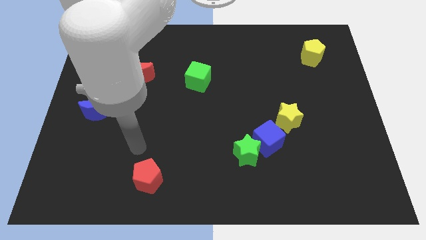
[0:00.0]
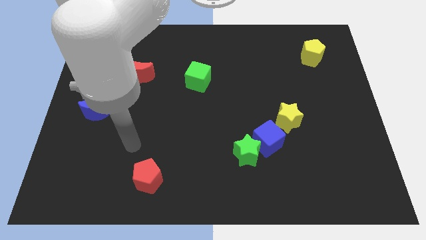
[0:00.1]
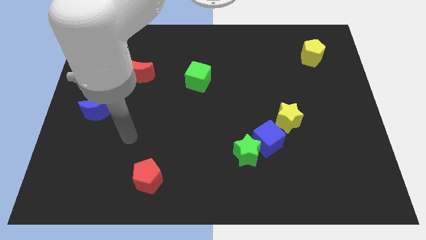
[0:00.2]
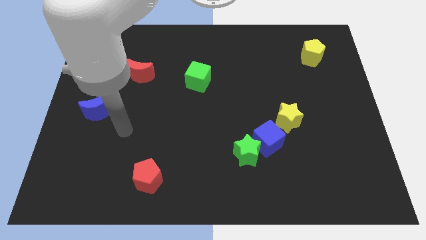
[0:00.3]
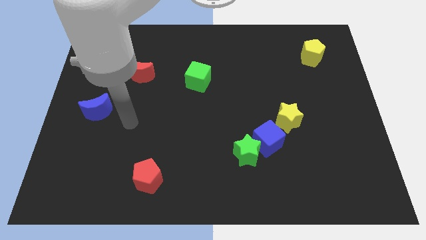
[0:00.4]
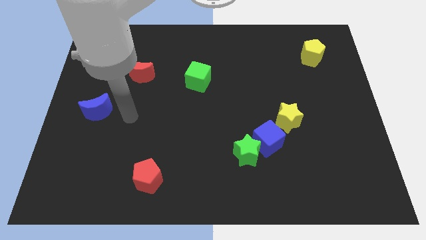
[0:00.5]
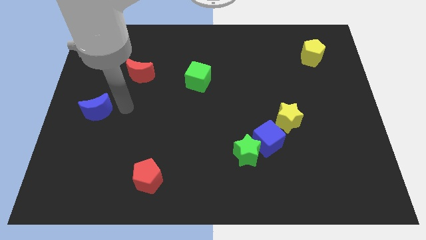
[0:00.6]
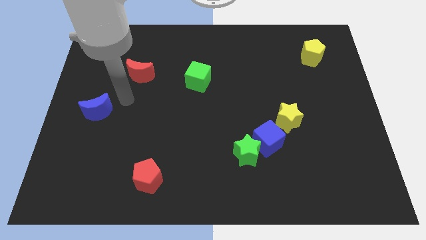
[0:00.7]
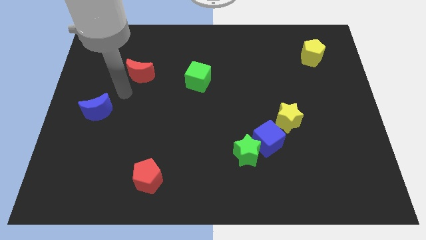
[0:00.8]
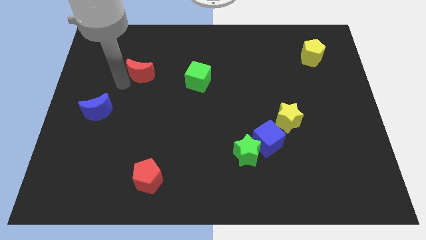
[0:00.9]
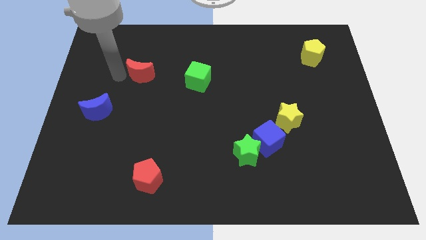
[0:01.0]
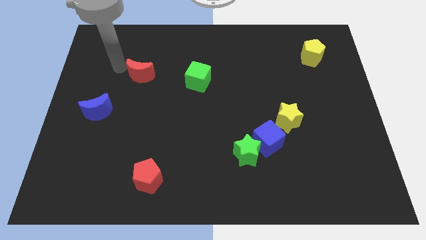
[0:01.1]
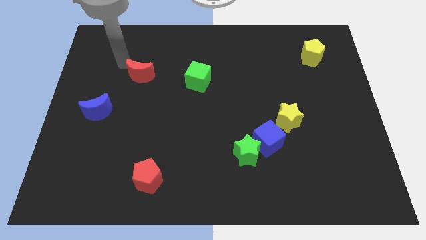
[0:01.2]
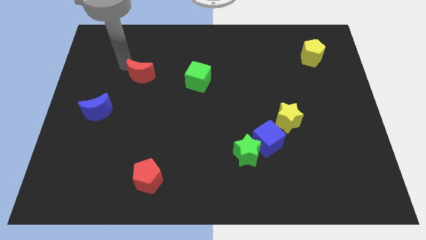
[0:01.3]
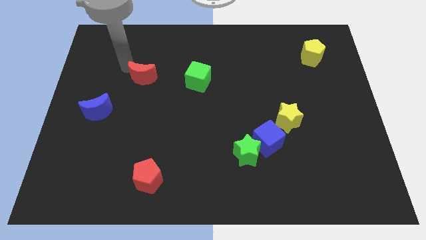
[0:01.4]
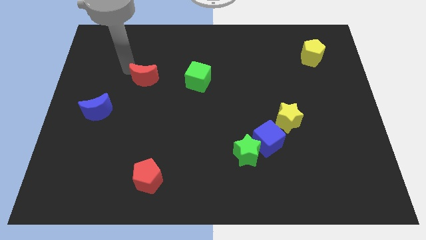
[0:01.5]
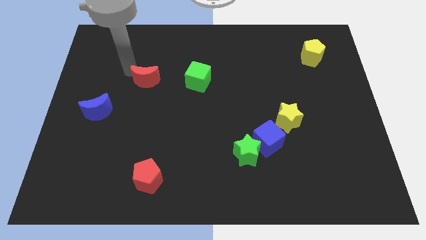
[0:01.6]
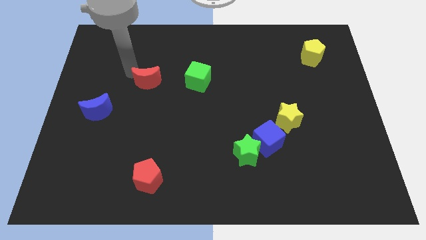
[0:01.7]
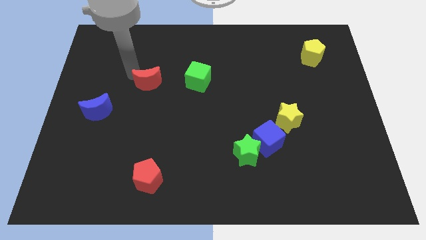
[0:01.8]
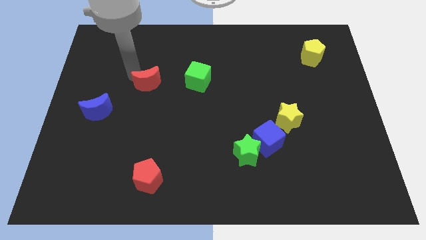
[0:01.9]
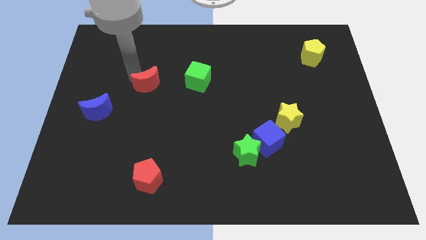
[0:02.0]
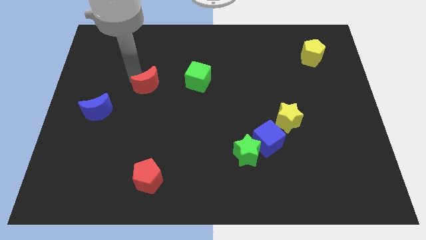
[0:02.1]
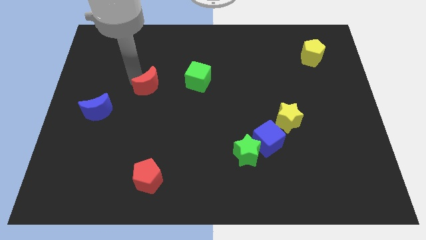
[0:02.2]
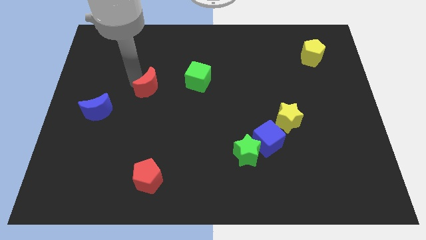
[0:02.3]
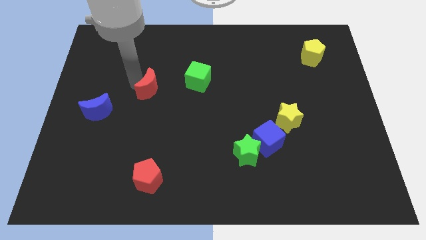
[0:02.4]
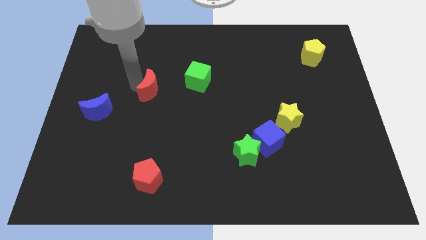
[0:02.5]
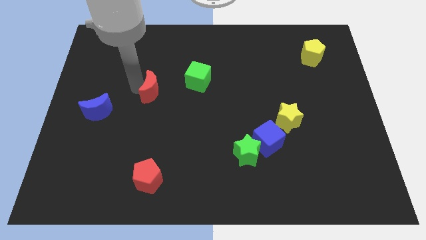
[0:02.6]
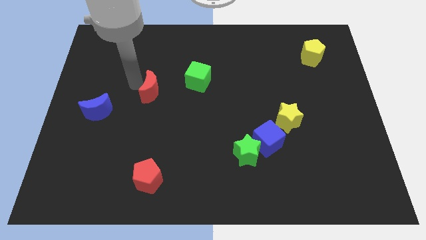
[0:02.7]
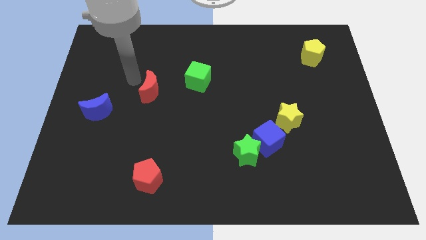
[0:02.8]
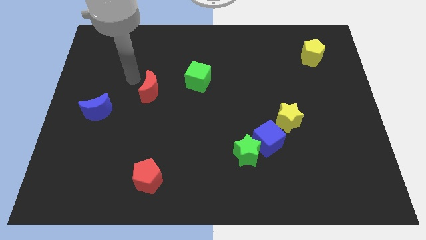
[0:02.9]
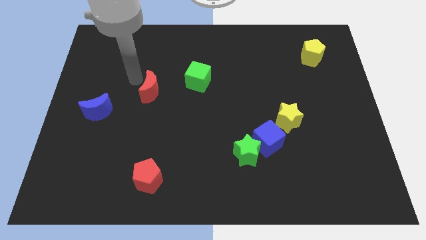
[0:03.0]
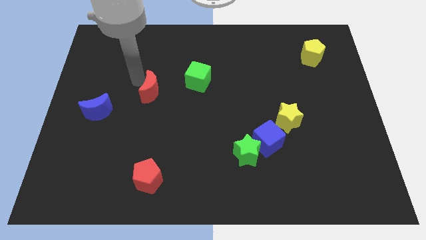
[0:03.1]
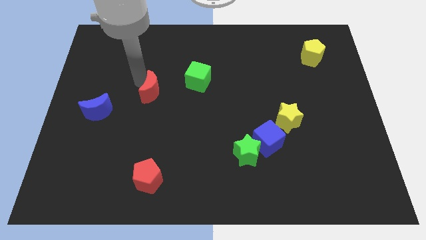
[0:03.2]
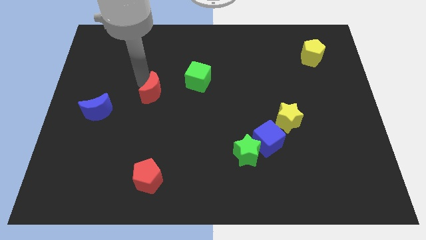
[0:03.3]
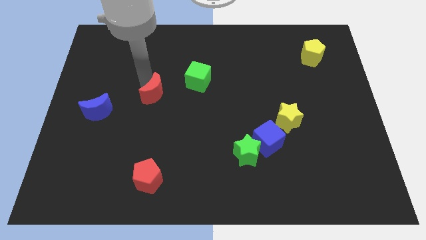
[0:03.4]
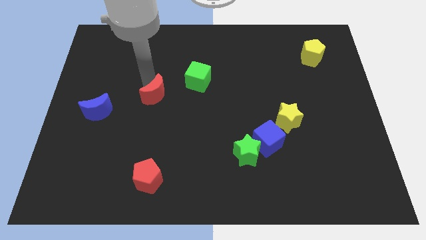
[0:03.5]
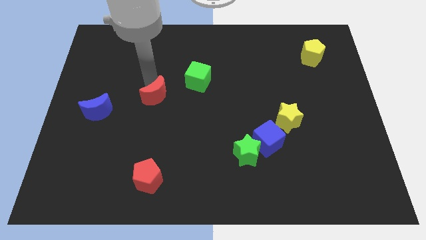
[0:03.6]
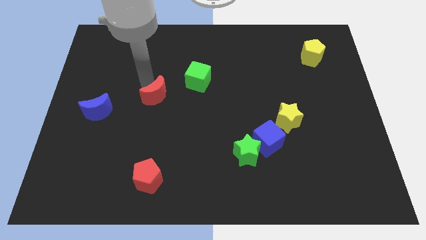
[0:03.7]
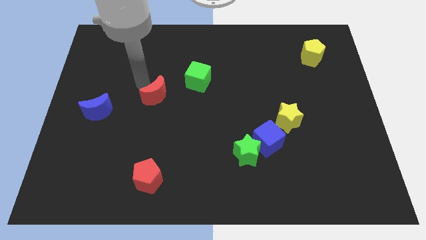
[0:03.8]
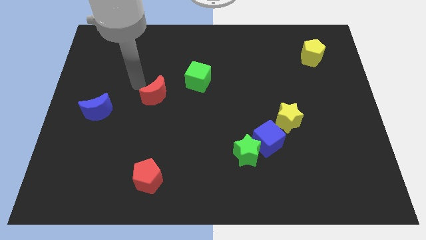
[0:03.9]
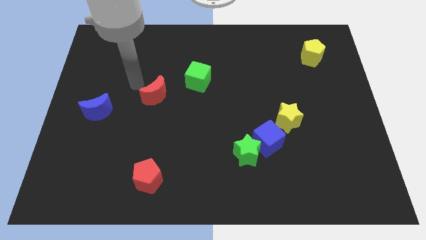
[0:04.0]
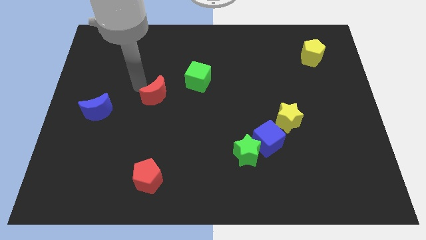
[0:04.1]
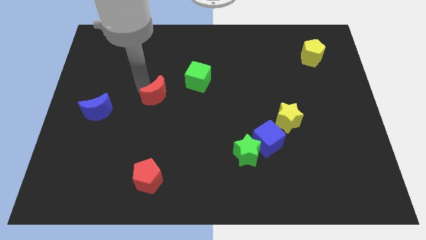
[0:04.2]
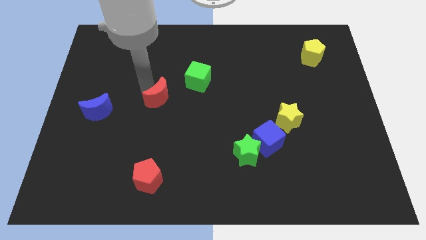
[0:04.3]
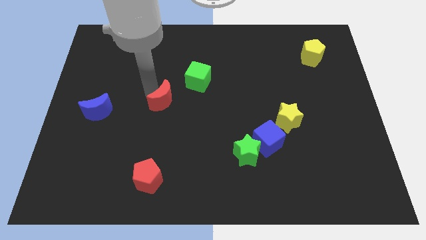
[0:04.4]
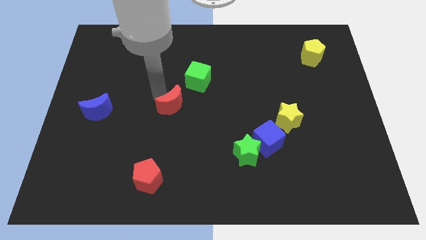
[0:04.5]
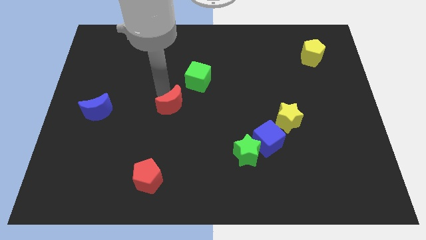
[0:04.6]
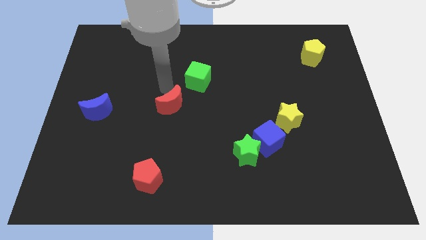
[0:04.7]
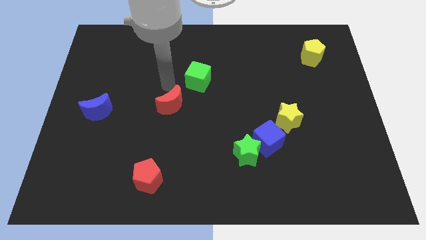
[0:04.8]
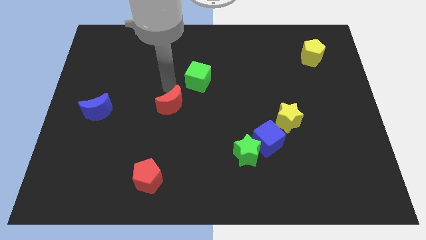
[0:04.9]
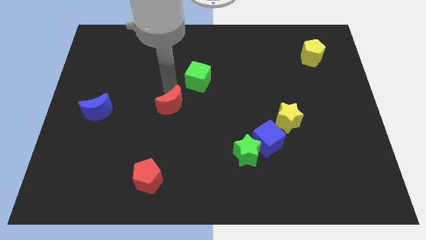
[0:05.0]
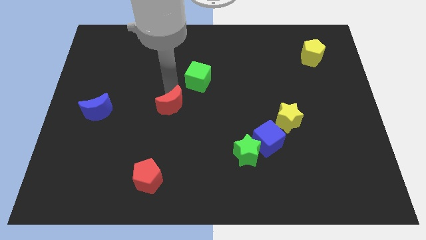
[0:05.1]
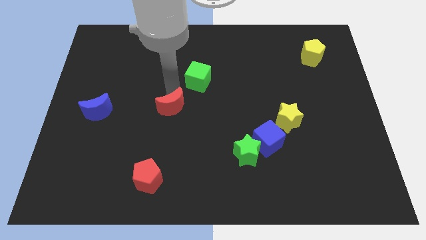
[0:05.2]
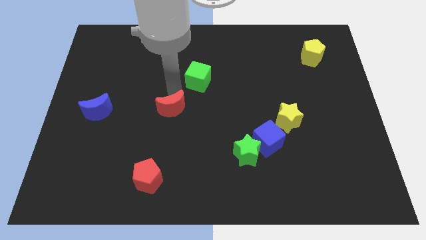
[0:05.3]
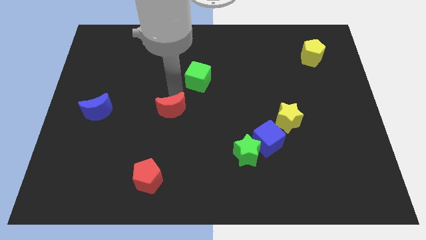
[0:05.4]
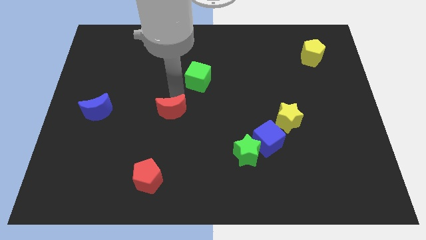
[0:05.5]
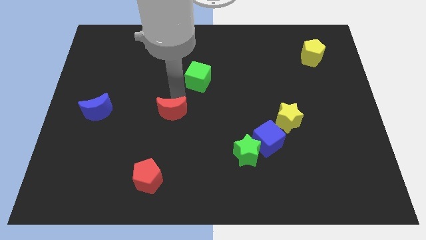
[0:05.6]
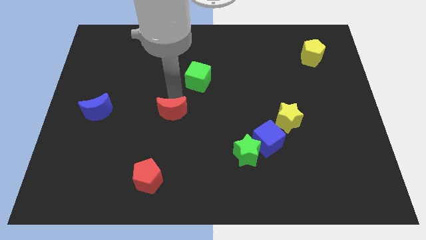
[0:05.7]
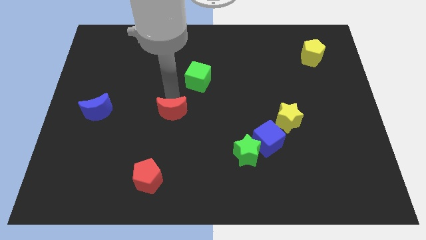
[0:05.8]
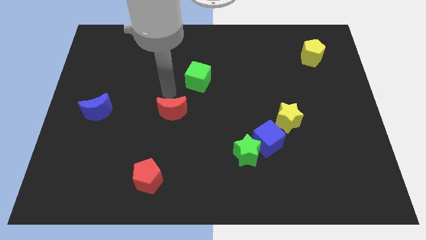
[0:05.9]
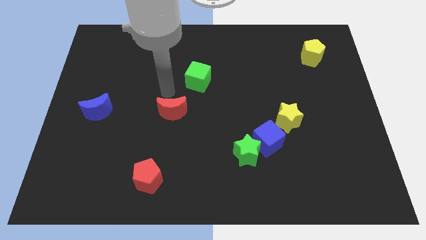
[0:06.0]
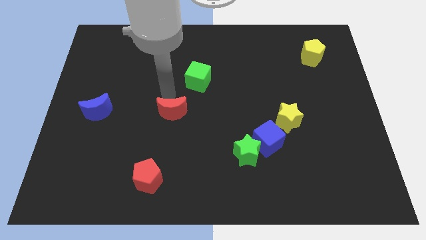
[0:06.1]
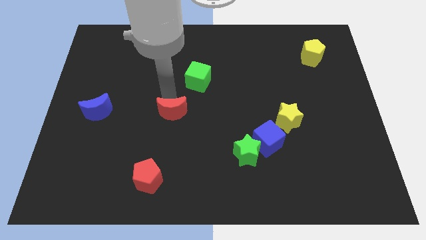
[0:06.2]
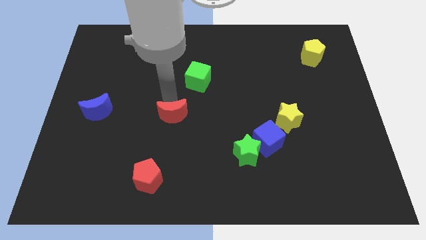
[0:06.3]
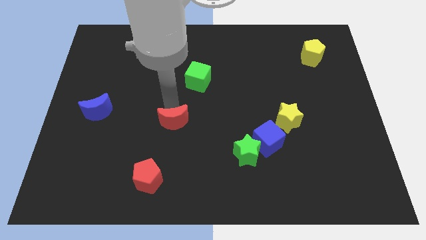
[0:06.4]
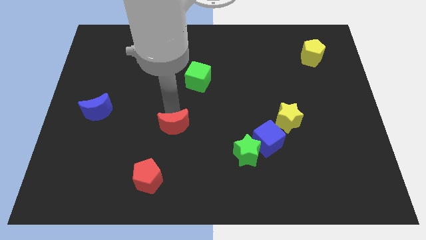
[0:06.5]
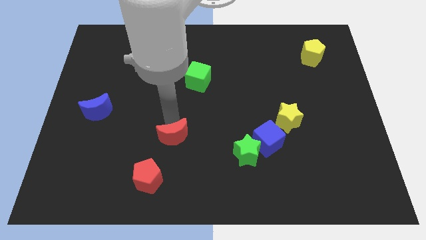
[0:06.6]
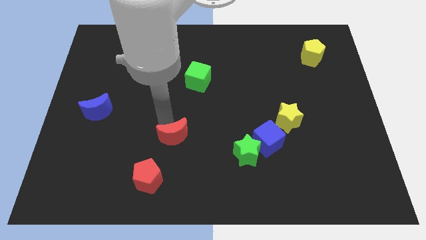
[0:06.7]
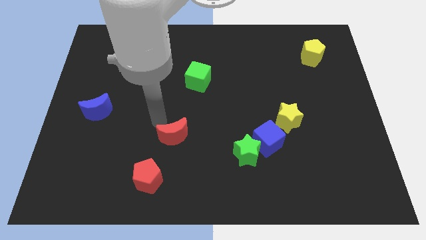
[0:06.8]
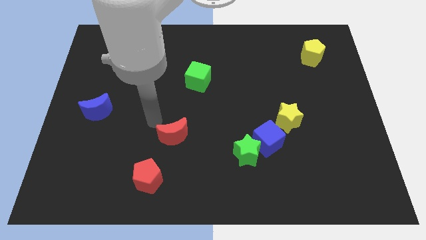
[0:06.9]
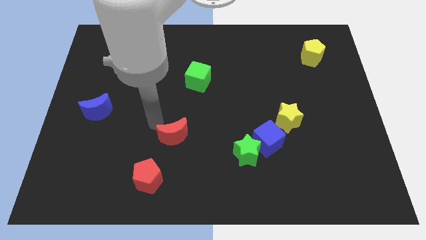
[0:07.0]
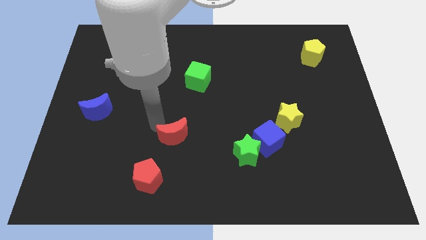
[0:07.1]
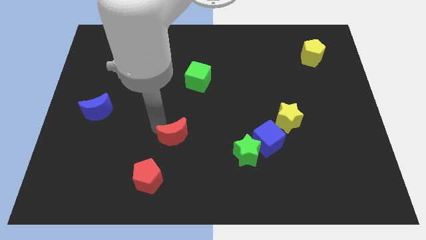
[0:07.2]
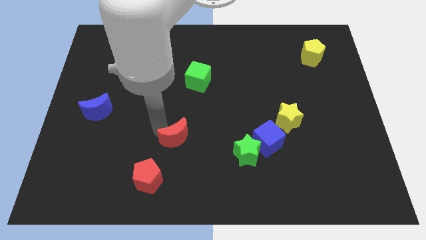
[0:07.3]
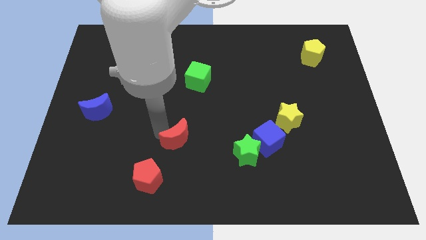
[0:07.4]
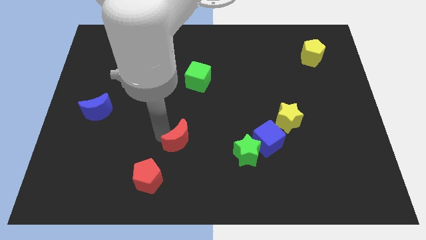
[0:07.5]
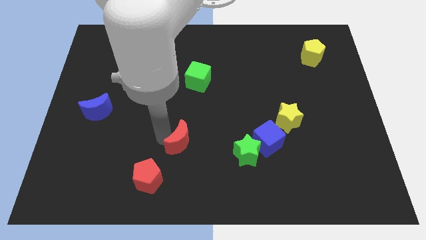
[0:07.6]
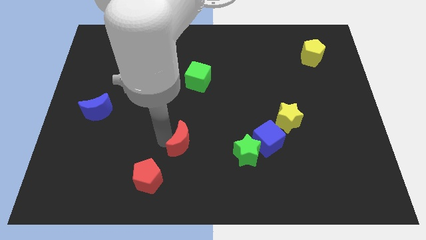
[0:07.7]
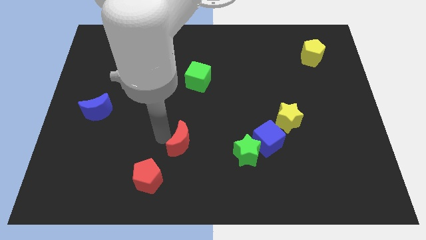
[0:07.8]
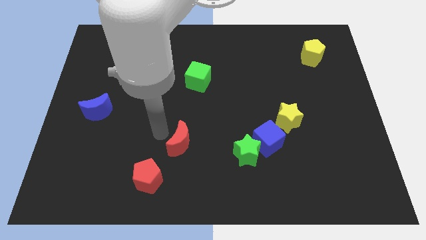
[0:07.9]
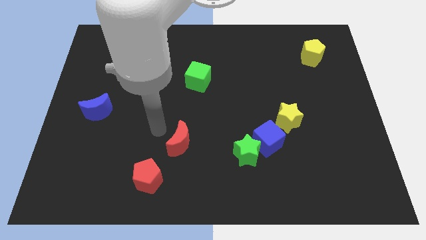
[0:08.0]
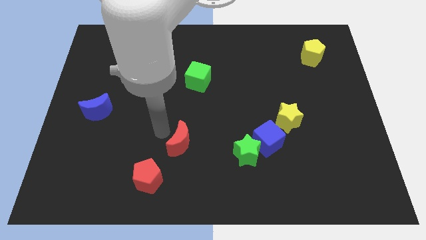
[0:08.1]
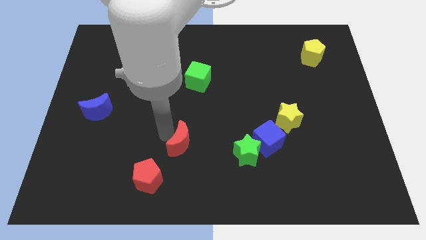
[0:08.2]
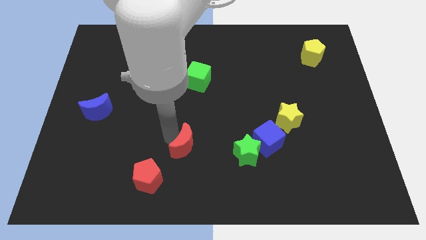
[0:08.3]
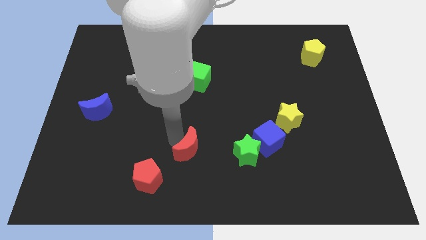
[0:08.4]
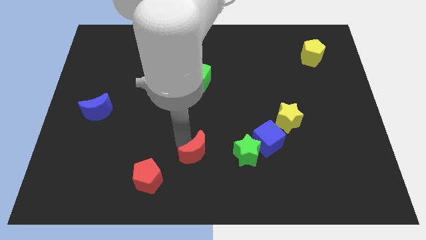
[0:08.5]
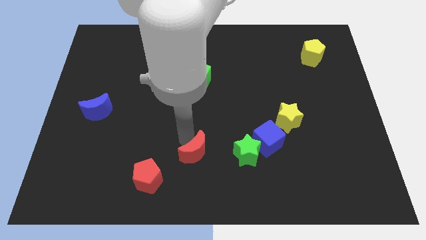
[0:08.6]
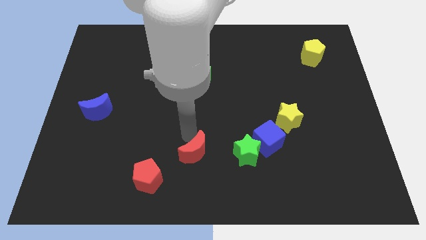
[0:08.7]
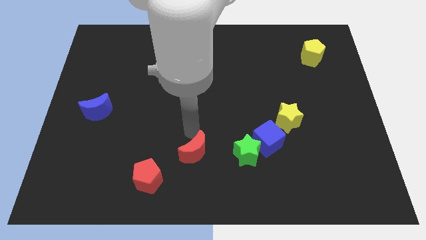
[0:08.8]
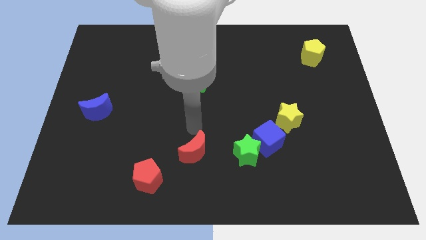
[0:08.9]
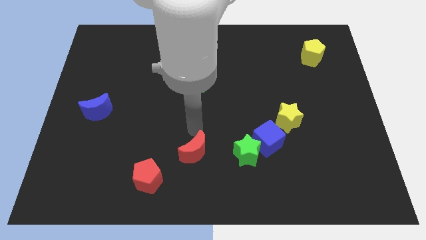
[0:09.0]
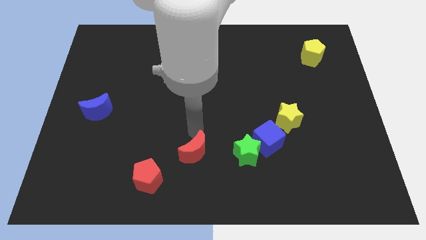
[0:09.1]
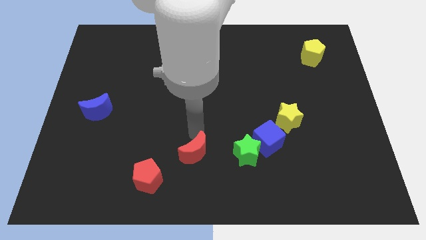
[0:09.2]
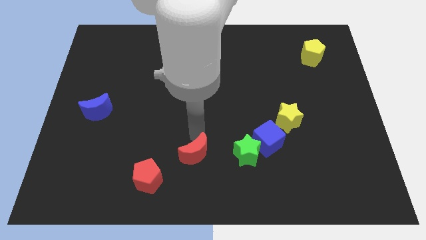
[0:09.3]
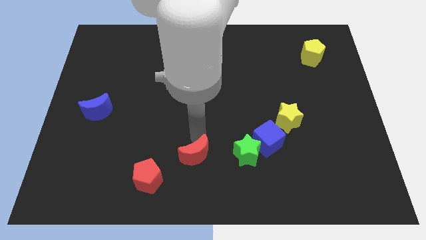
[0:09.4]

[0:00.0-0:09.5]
slide the red moon to the bottom side
